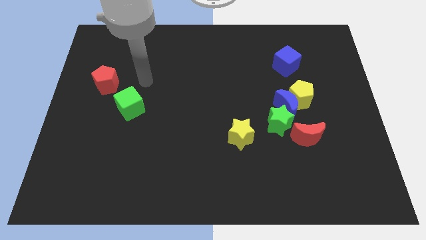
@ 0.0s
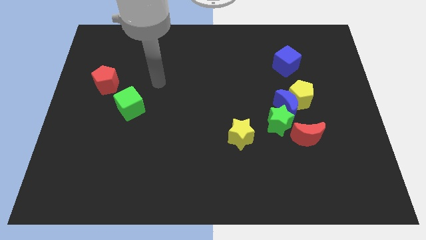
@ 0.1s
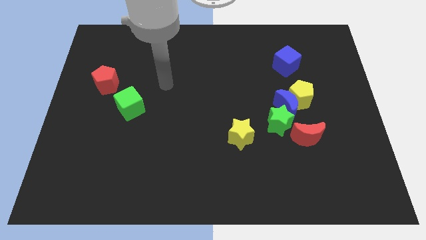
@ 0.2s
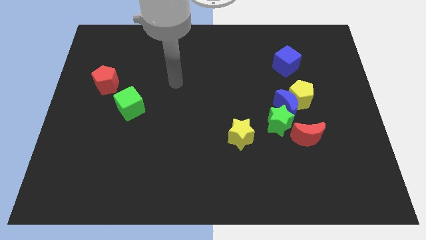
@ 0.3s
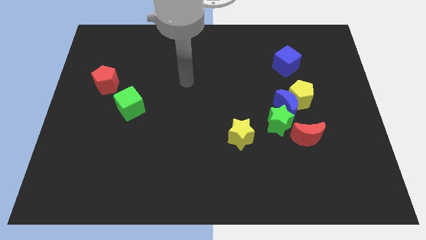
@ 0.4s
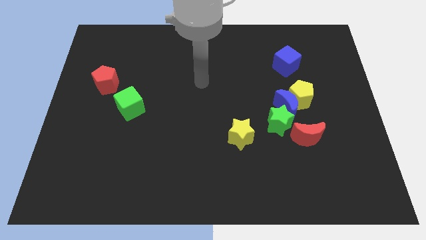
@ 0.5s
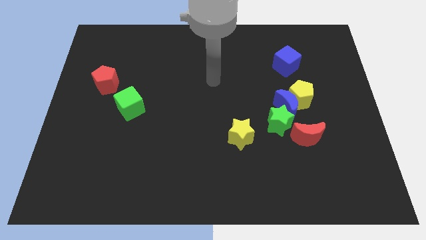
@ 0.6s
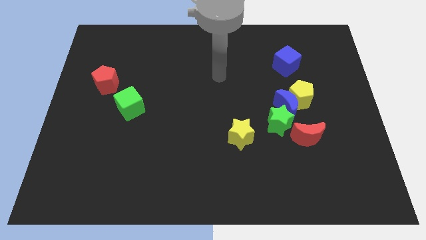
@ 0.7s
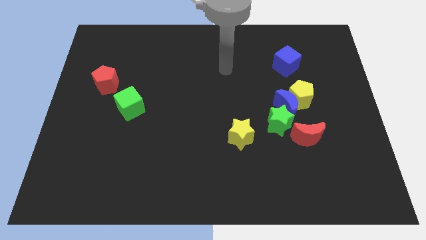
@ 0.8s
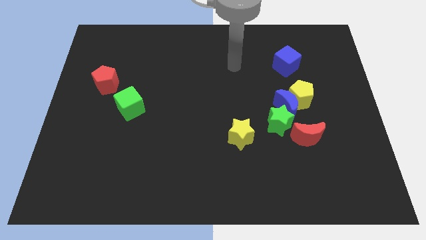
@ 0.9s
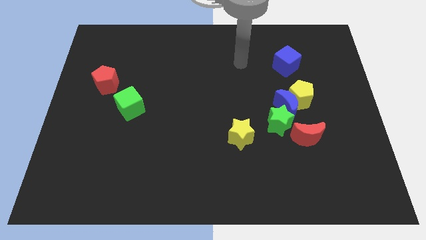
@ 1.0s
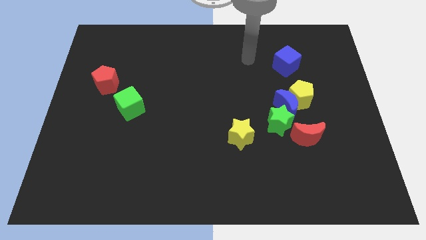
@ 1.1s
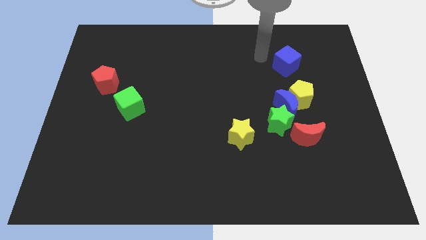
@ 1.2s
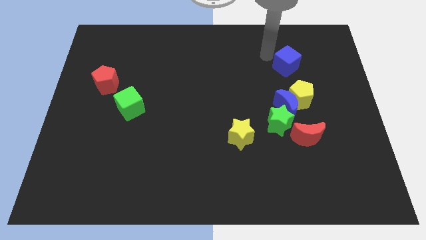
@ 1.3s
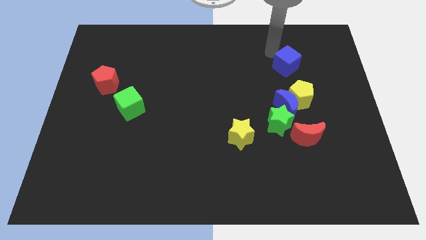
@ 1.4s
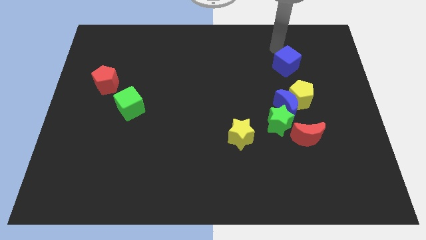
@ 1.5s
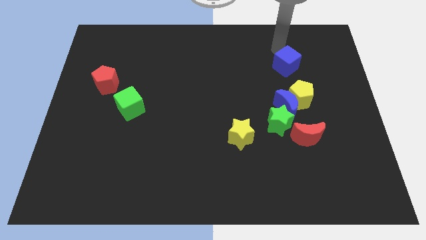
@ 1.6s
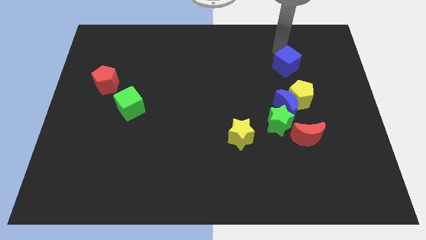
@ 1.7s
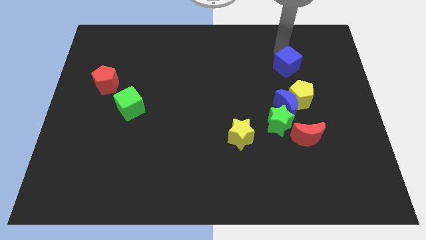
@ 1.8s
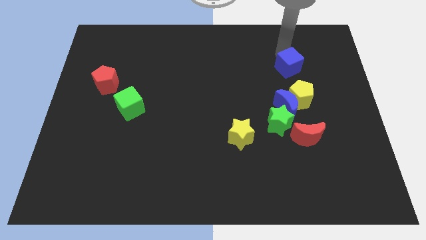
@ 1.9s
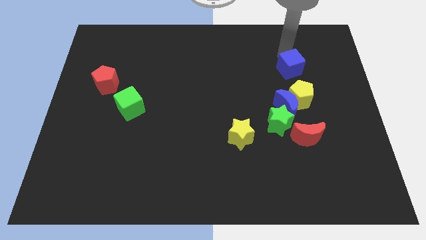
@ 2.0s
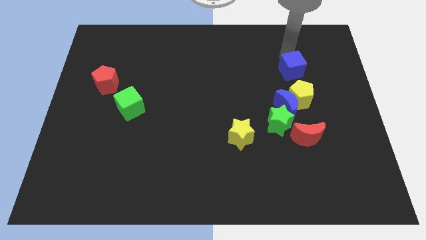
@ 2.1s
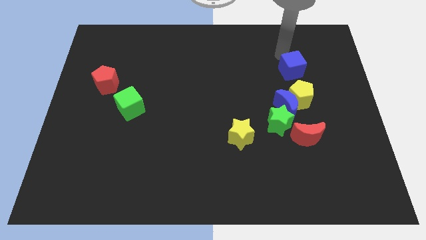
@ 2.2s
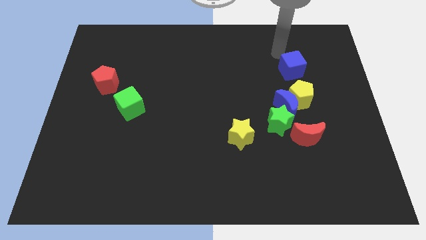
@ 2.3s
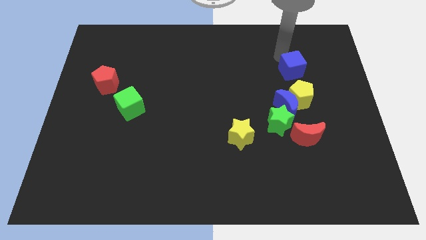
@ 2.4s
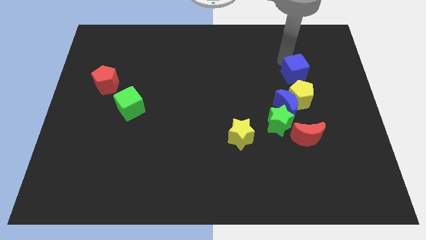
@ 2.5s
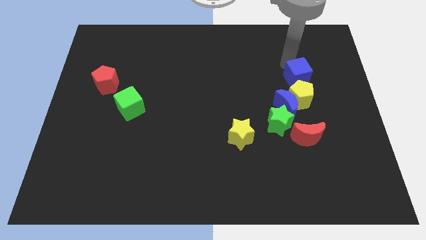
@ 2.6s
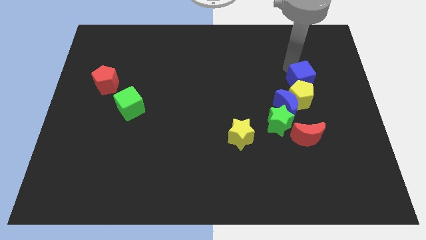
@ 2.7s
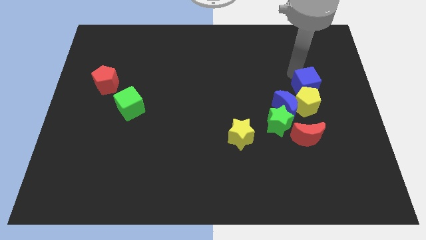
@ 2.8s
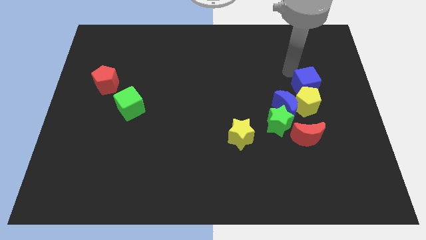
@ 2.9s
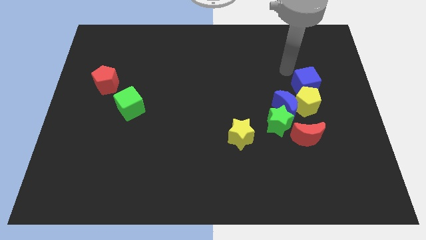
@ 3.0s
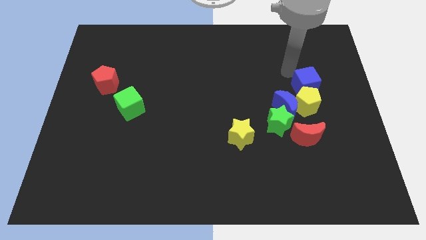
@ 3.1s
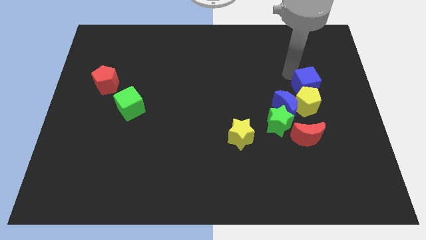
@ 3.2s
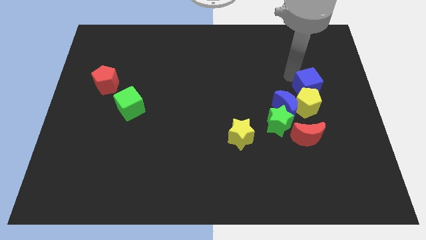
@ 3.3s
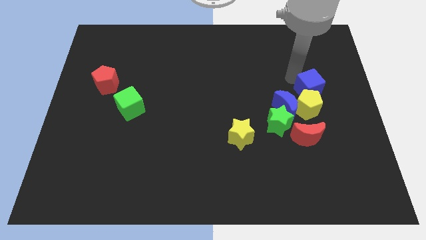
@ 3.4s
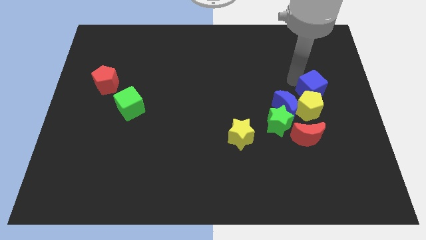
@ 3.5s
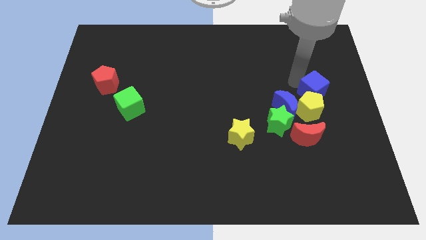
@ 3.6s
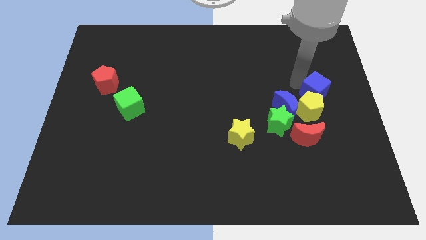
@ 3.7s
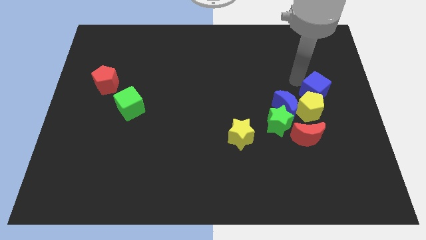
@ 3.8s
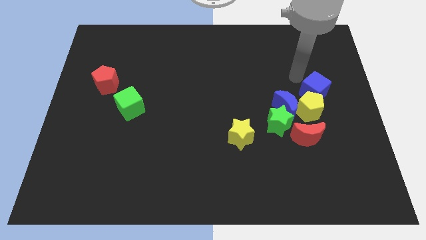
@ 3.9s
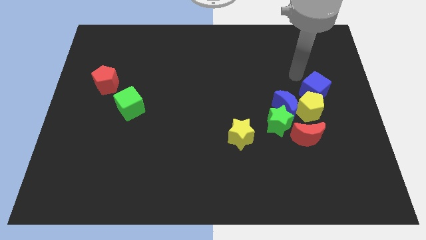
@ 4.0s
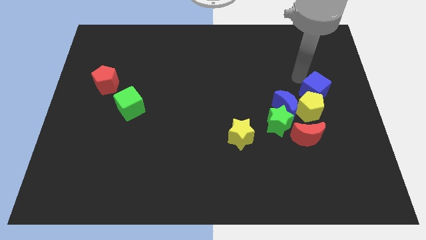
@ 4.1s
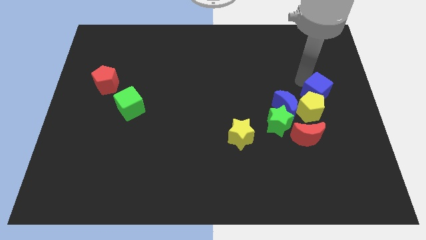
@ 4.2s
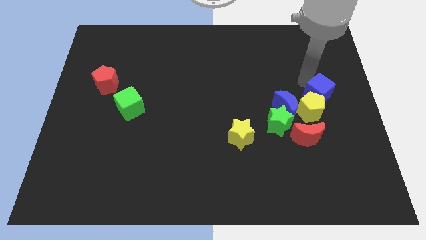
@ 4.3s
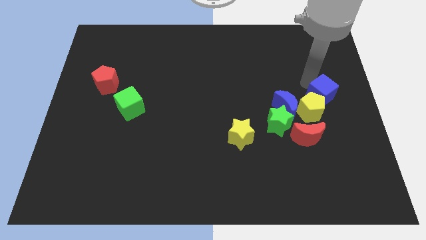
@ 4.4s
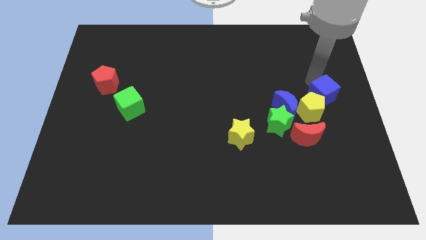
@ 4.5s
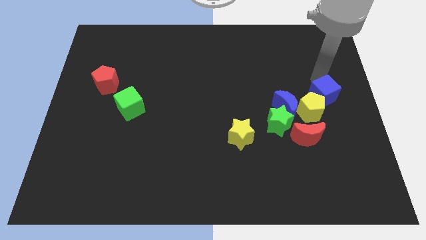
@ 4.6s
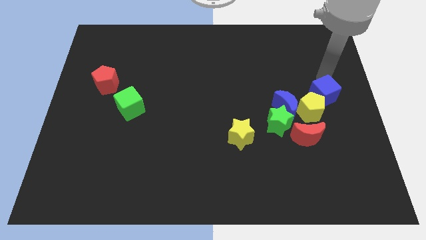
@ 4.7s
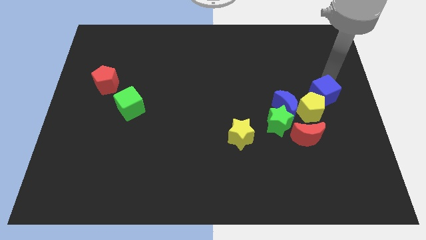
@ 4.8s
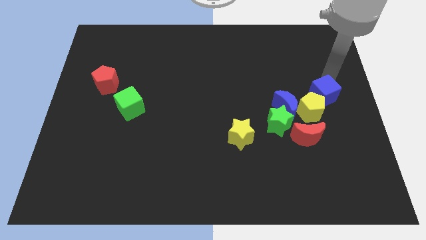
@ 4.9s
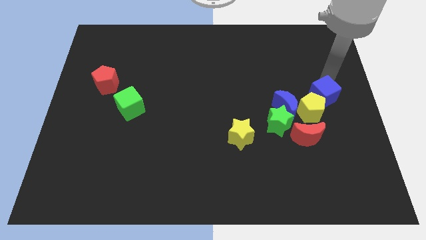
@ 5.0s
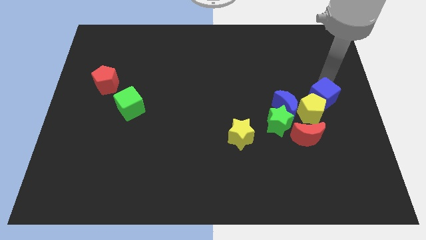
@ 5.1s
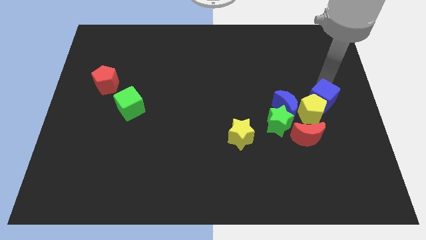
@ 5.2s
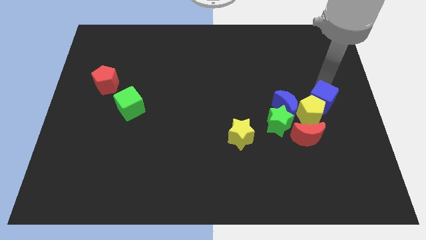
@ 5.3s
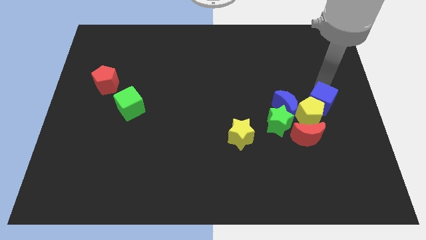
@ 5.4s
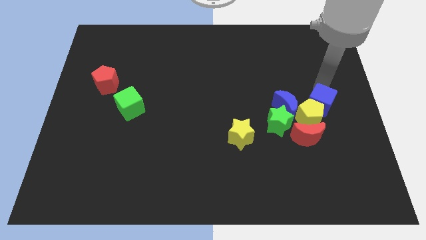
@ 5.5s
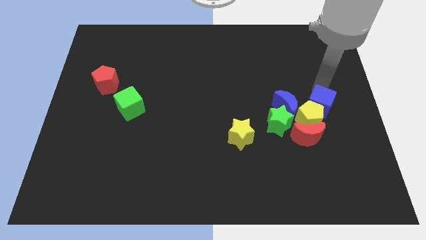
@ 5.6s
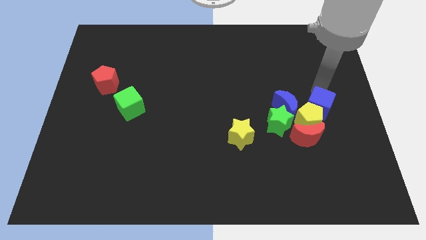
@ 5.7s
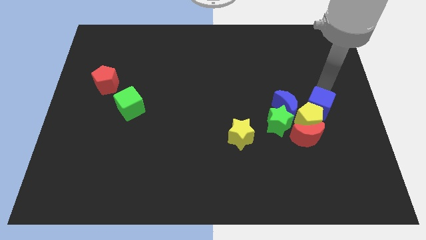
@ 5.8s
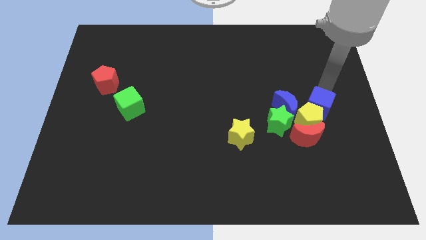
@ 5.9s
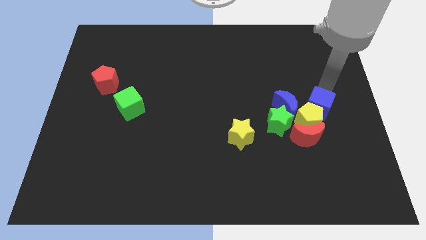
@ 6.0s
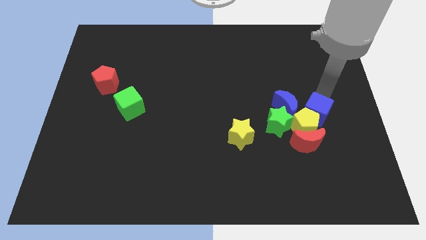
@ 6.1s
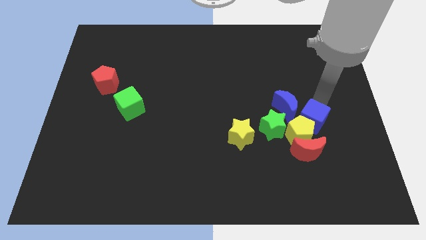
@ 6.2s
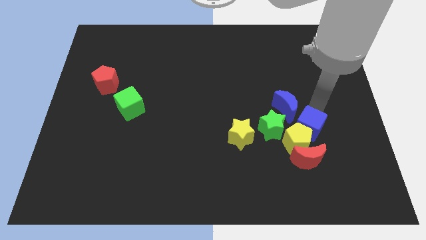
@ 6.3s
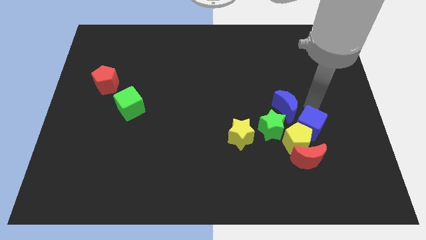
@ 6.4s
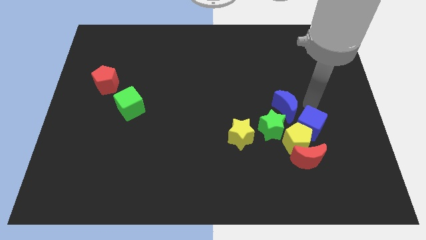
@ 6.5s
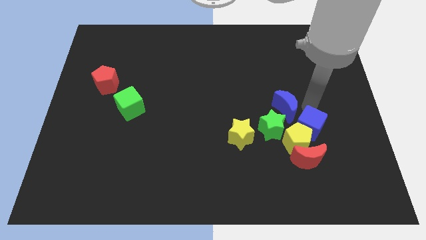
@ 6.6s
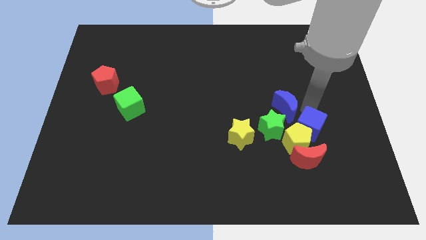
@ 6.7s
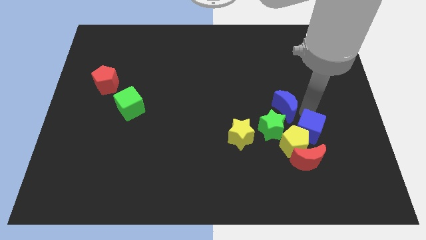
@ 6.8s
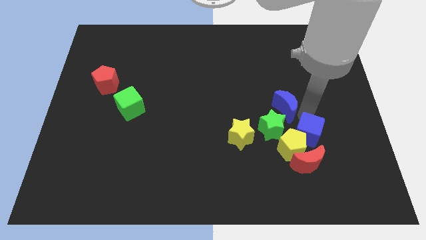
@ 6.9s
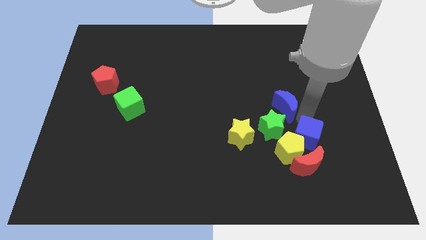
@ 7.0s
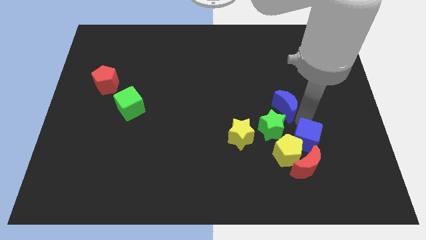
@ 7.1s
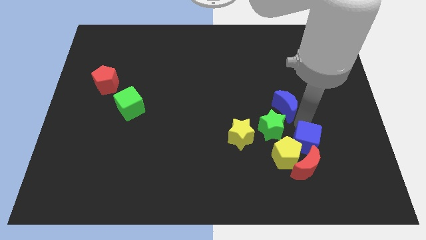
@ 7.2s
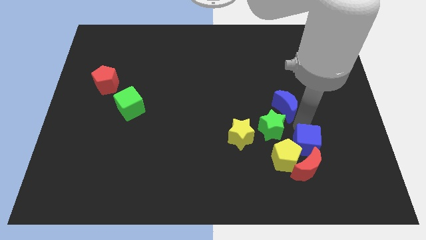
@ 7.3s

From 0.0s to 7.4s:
put the blue cube towards the red moon
